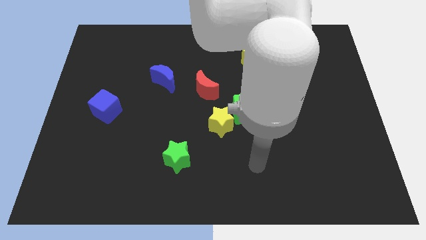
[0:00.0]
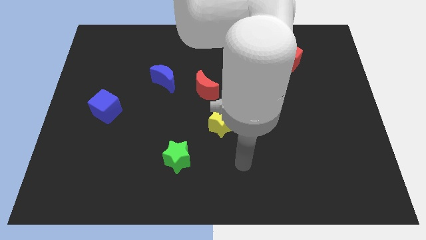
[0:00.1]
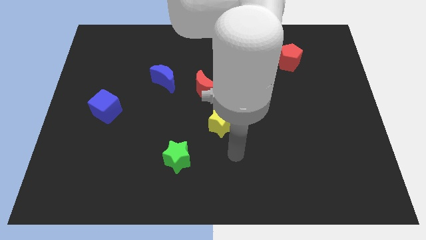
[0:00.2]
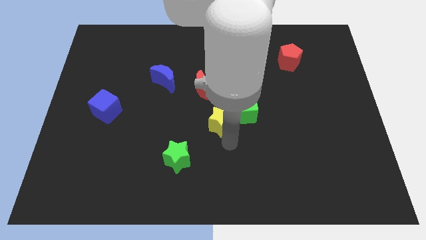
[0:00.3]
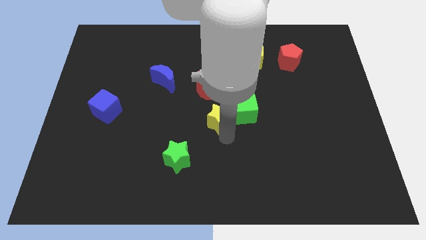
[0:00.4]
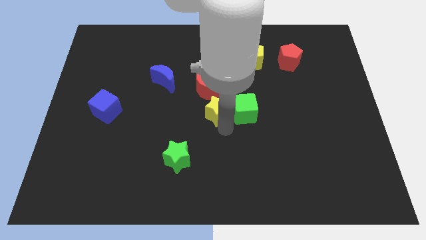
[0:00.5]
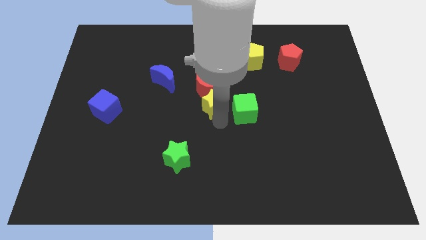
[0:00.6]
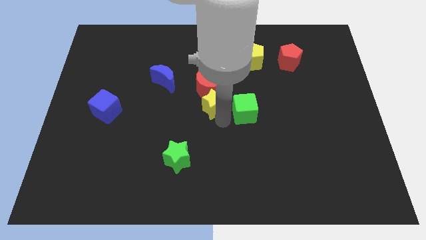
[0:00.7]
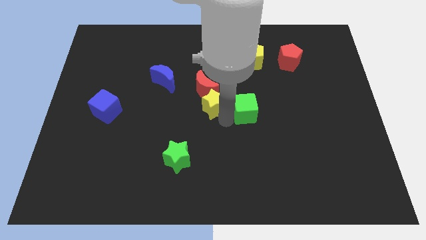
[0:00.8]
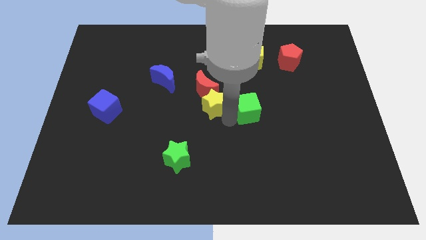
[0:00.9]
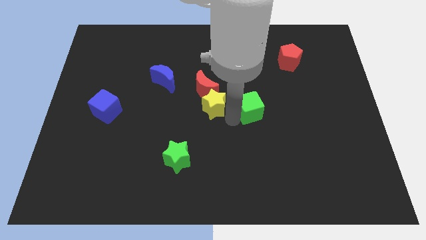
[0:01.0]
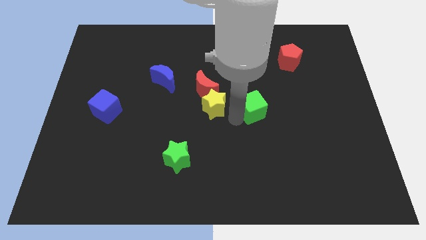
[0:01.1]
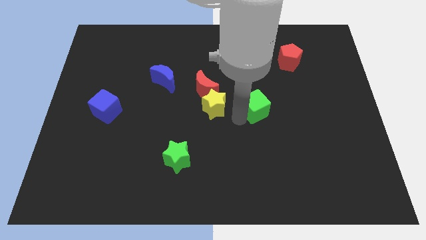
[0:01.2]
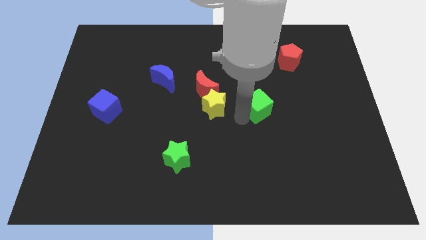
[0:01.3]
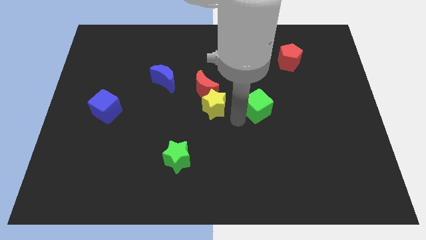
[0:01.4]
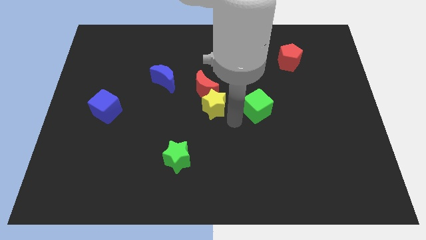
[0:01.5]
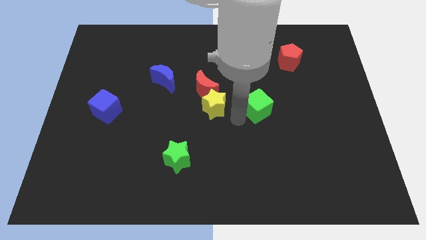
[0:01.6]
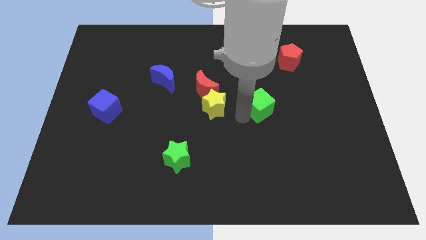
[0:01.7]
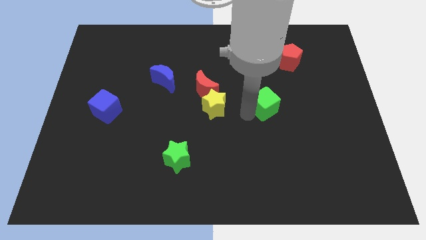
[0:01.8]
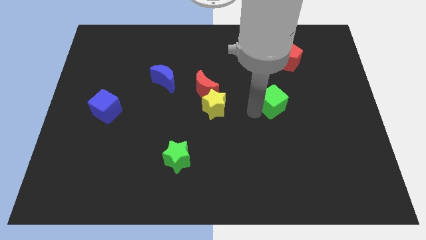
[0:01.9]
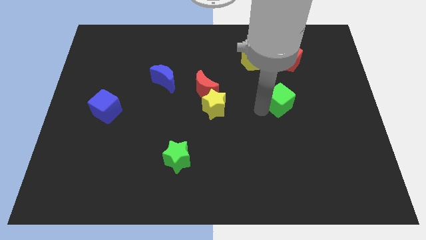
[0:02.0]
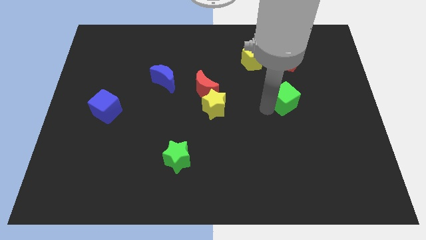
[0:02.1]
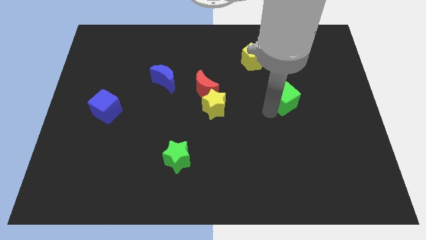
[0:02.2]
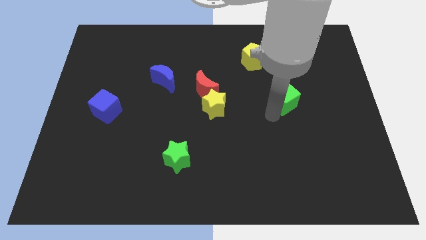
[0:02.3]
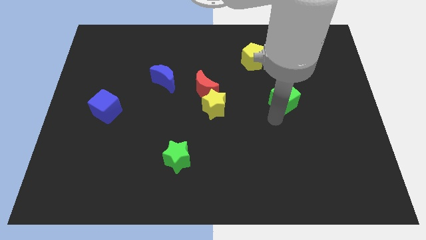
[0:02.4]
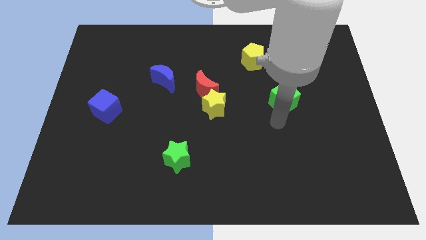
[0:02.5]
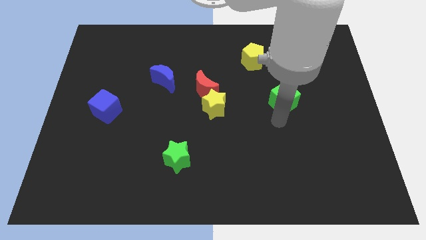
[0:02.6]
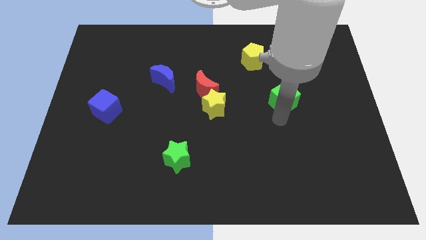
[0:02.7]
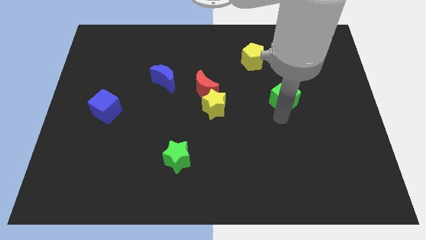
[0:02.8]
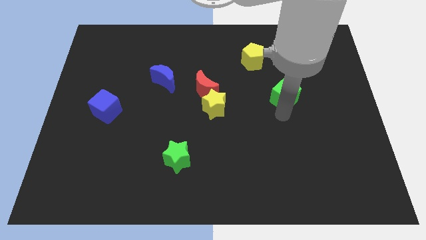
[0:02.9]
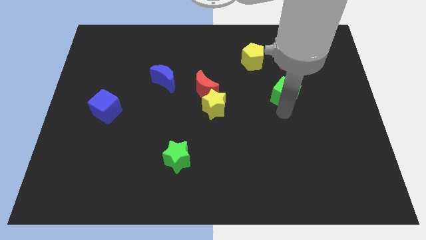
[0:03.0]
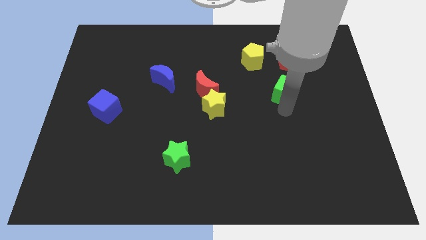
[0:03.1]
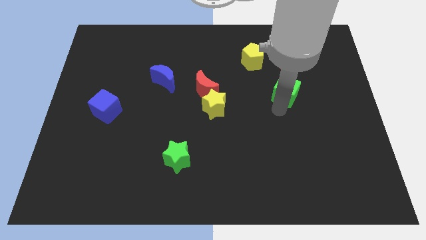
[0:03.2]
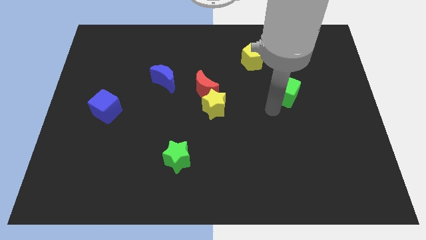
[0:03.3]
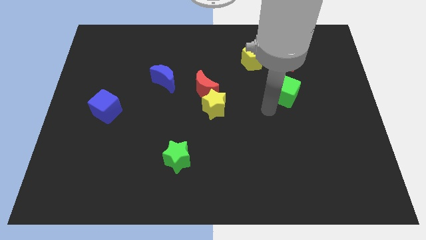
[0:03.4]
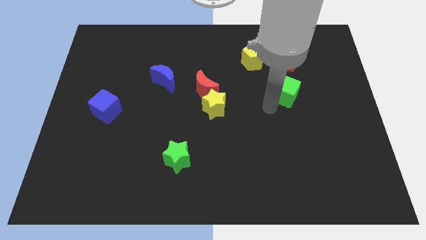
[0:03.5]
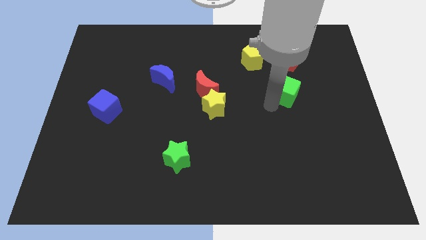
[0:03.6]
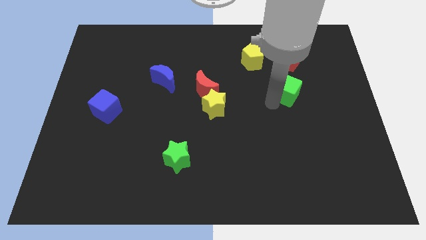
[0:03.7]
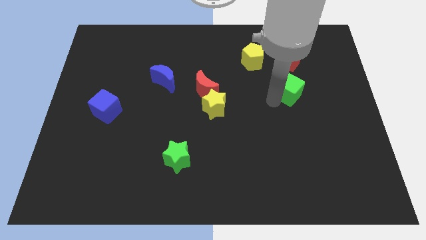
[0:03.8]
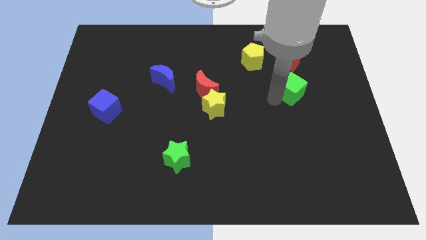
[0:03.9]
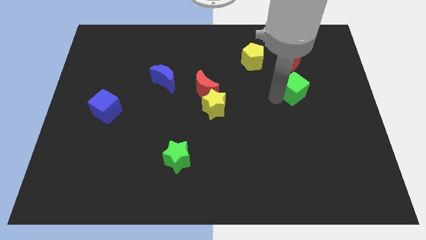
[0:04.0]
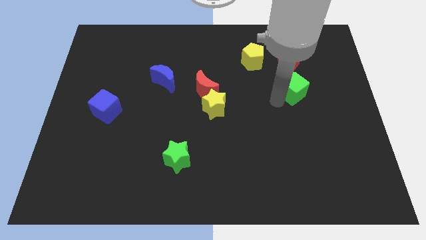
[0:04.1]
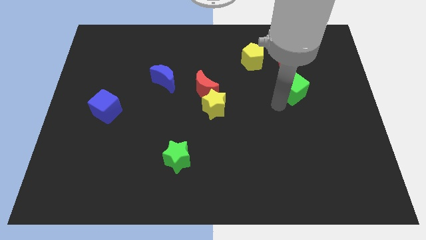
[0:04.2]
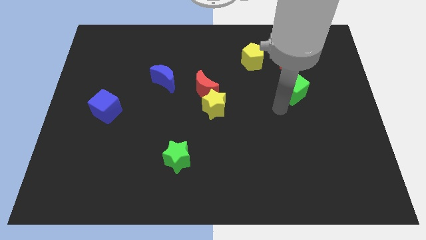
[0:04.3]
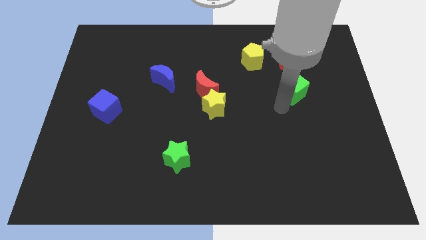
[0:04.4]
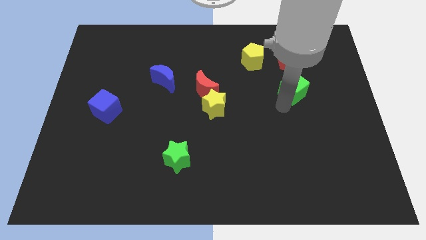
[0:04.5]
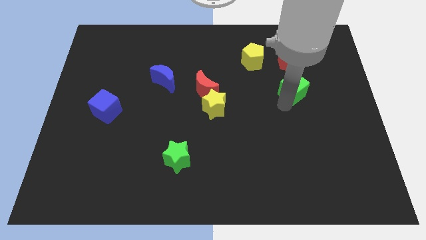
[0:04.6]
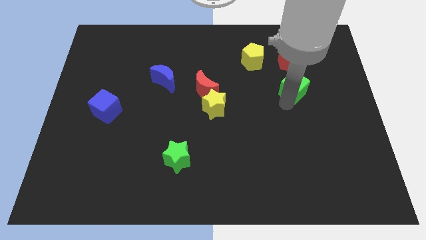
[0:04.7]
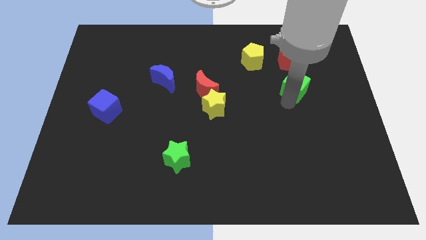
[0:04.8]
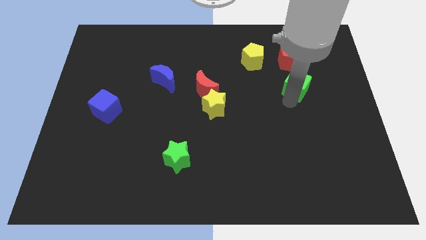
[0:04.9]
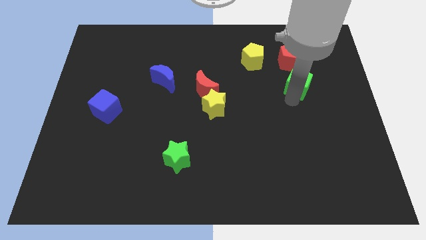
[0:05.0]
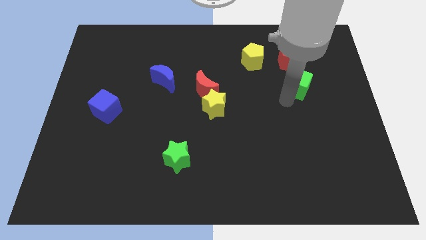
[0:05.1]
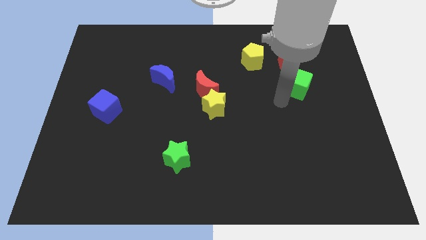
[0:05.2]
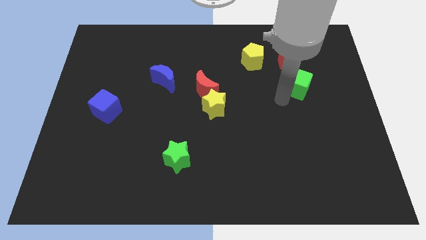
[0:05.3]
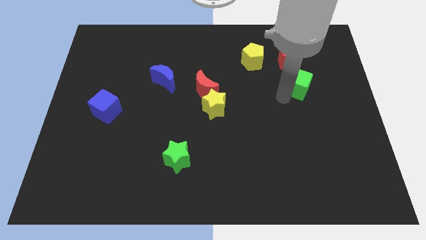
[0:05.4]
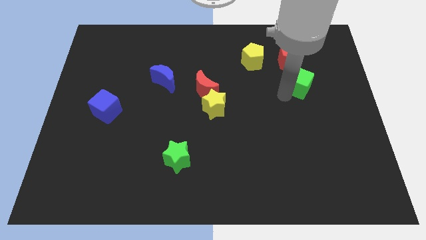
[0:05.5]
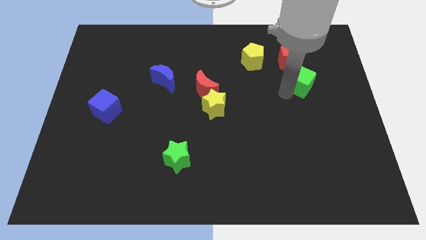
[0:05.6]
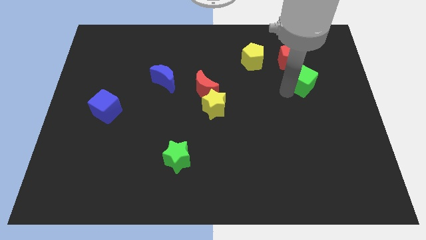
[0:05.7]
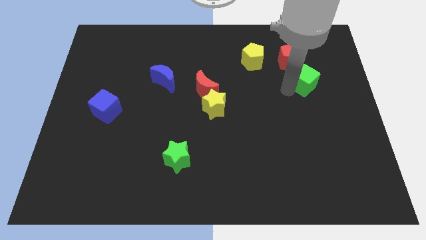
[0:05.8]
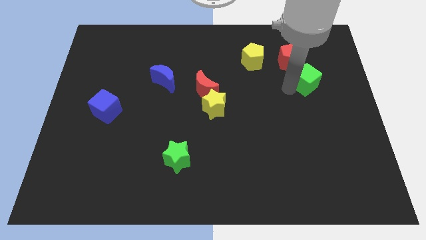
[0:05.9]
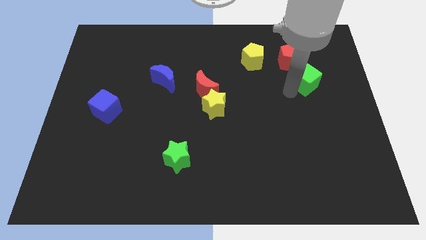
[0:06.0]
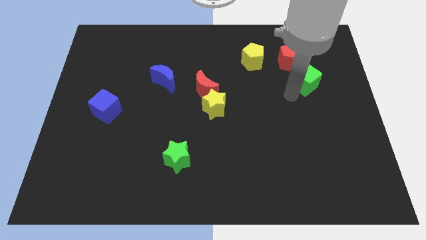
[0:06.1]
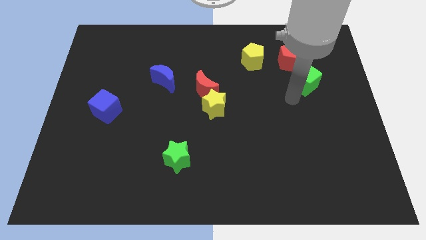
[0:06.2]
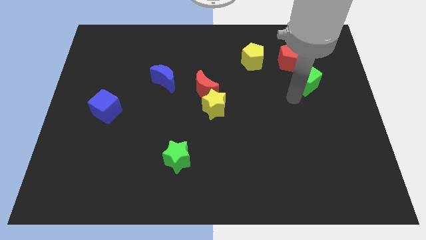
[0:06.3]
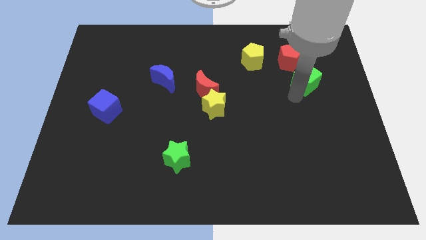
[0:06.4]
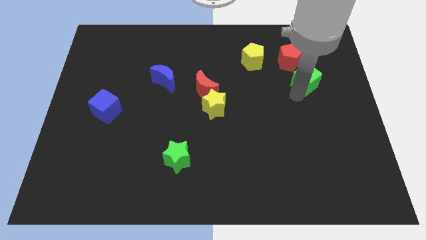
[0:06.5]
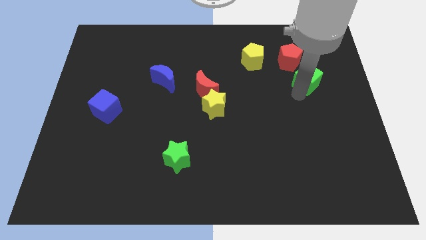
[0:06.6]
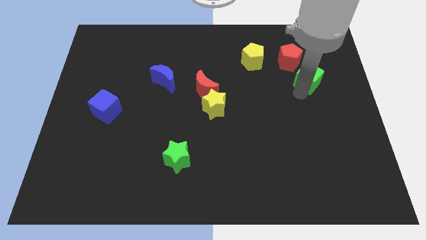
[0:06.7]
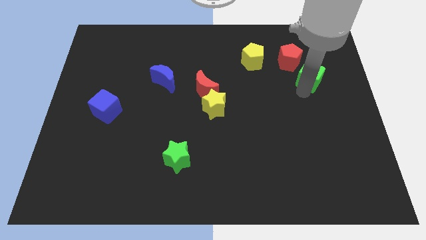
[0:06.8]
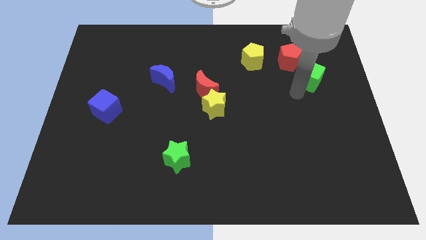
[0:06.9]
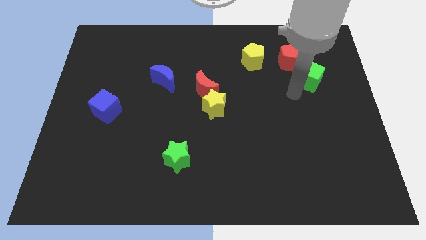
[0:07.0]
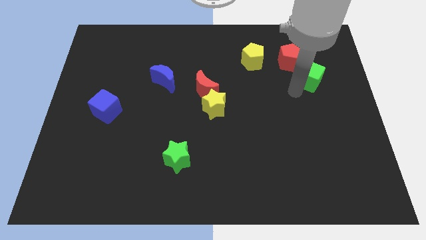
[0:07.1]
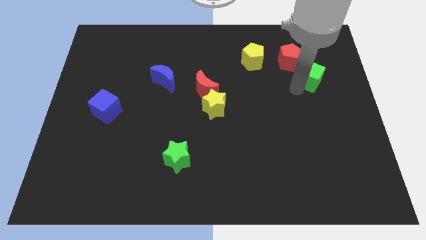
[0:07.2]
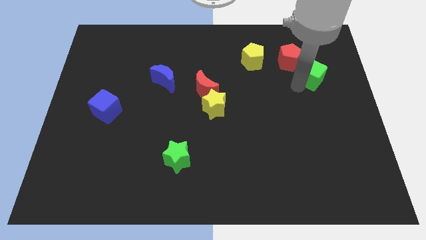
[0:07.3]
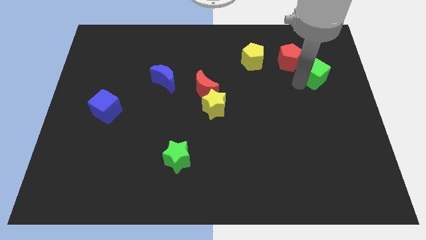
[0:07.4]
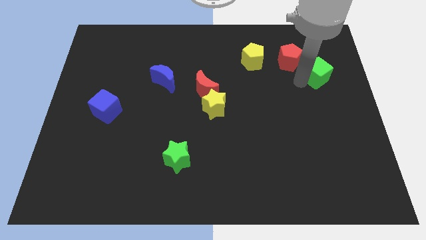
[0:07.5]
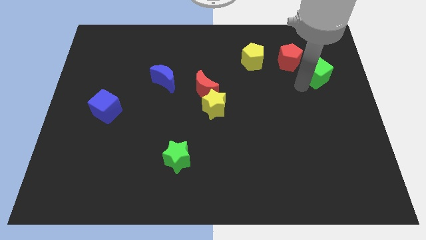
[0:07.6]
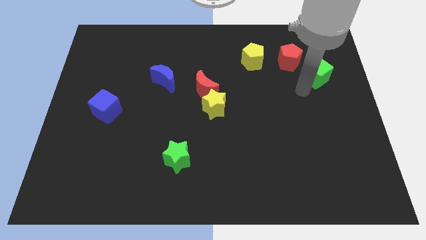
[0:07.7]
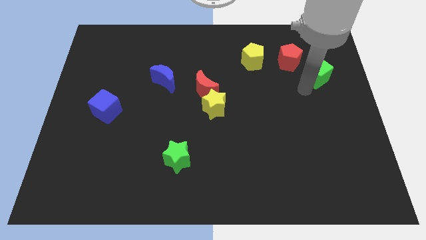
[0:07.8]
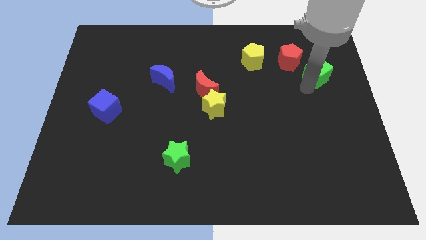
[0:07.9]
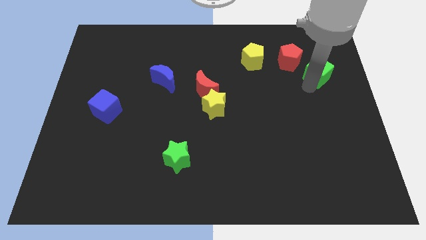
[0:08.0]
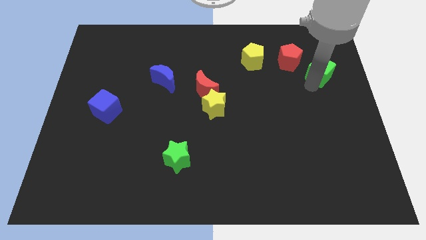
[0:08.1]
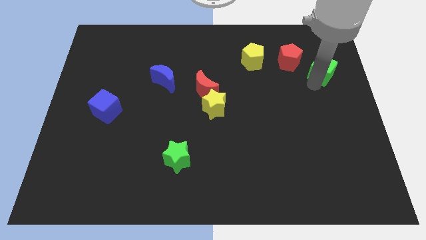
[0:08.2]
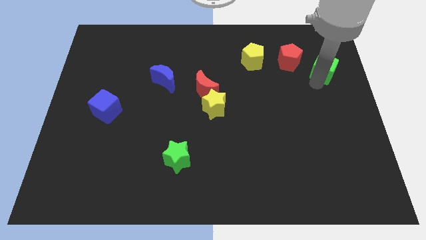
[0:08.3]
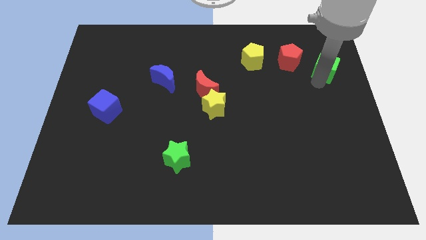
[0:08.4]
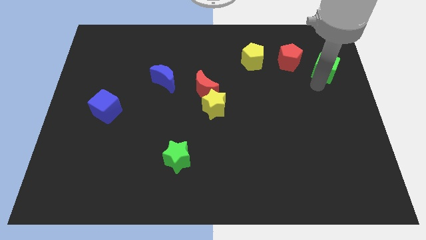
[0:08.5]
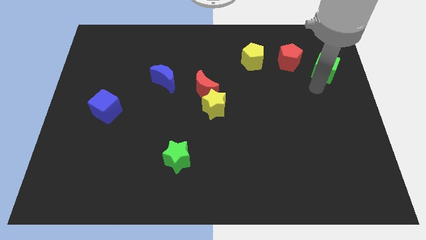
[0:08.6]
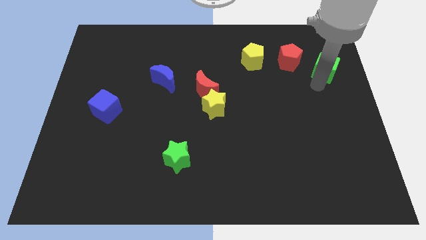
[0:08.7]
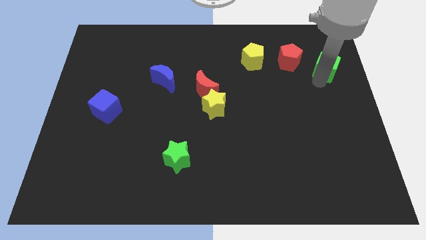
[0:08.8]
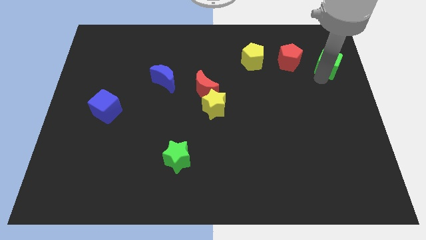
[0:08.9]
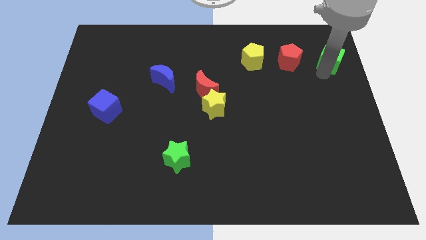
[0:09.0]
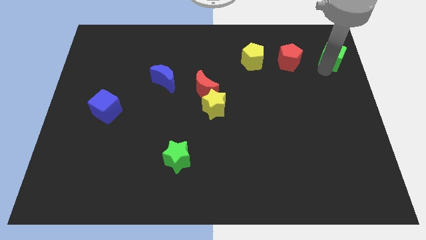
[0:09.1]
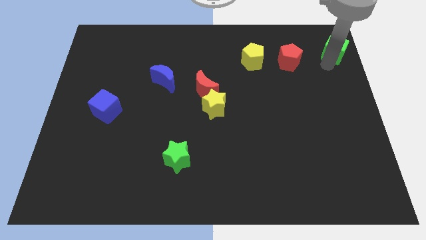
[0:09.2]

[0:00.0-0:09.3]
put the green cube to the top right
